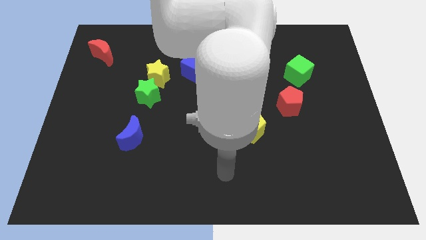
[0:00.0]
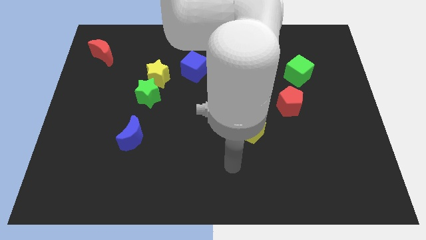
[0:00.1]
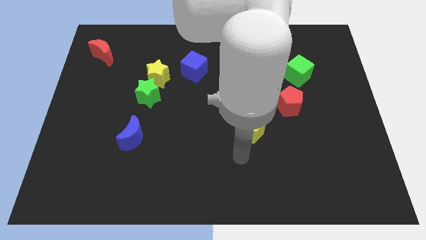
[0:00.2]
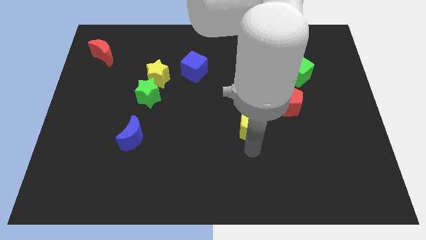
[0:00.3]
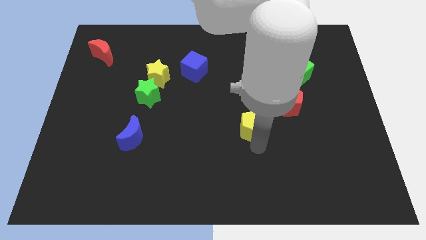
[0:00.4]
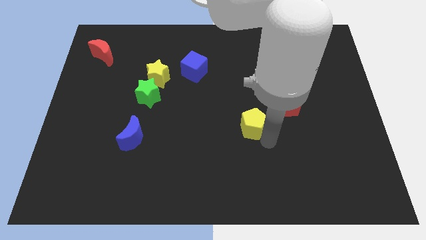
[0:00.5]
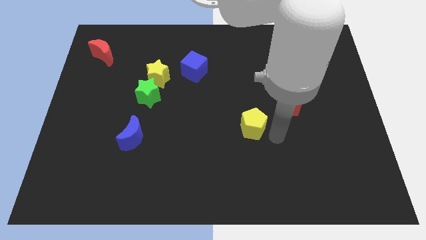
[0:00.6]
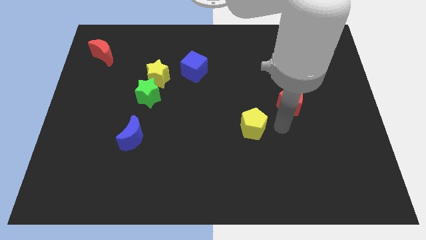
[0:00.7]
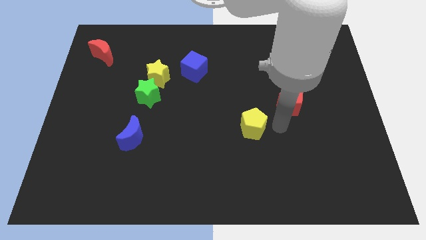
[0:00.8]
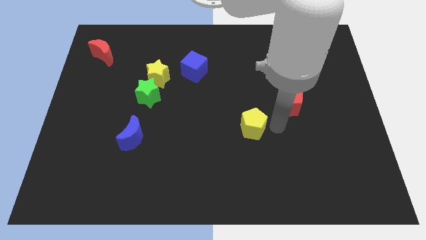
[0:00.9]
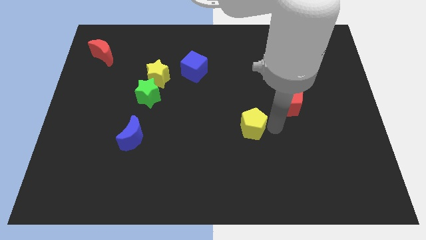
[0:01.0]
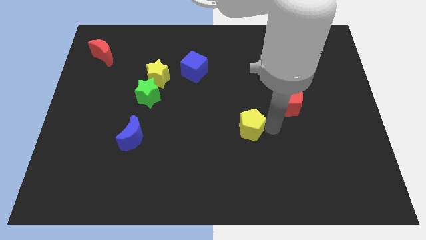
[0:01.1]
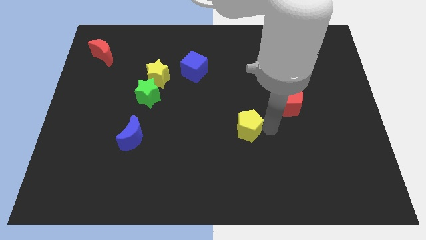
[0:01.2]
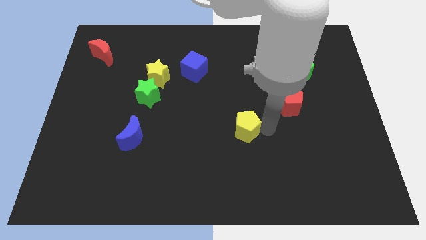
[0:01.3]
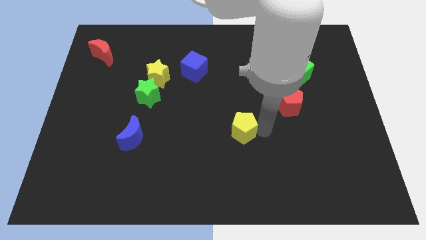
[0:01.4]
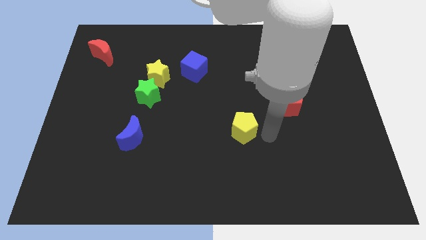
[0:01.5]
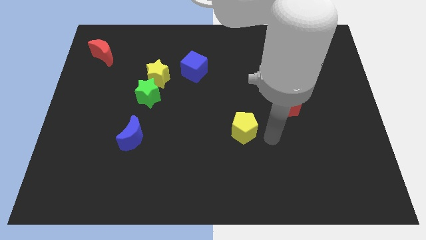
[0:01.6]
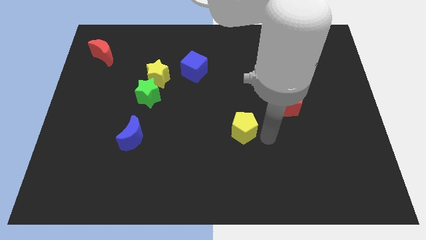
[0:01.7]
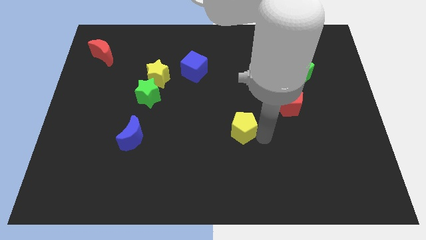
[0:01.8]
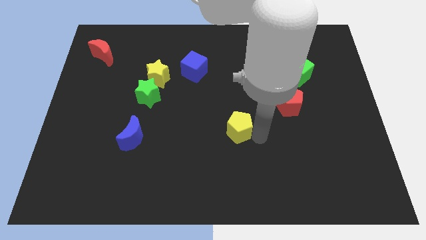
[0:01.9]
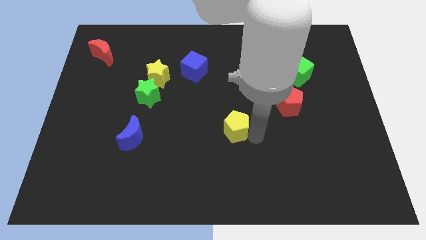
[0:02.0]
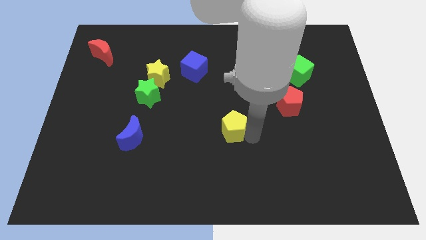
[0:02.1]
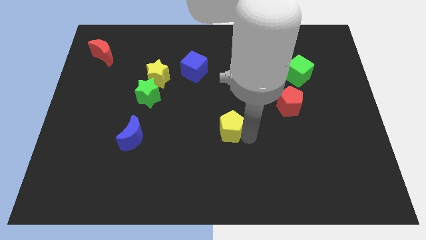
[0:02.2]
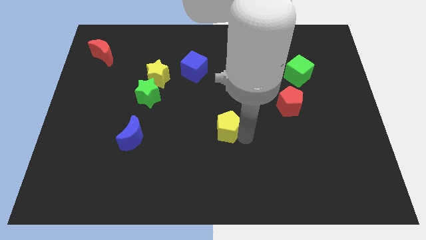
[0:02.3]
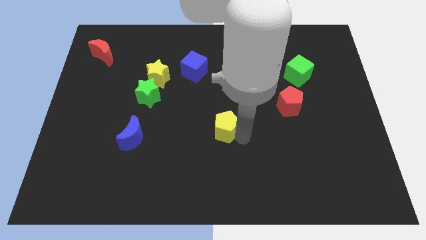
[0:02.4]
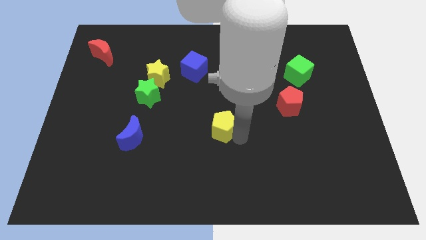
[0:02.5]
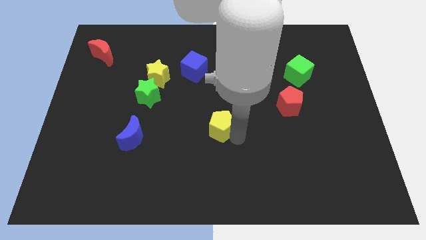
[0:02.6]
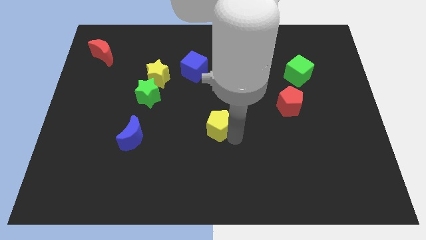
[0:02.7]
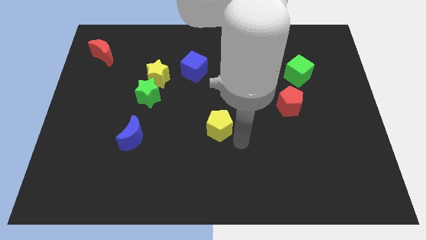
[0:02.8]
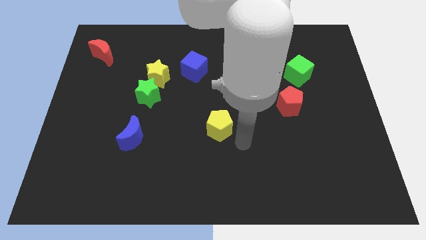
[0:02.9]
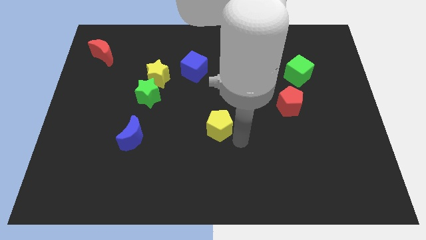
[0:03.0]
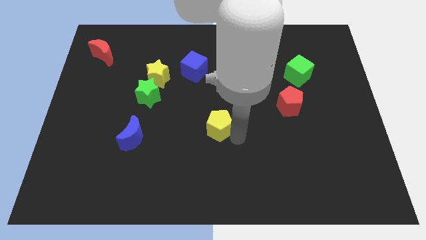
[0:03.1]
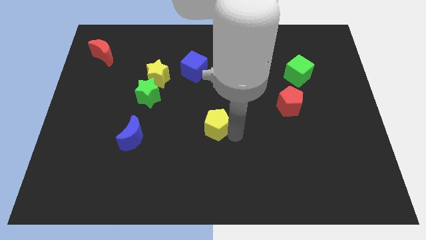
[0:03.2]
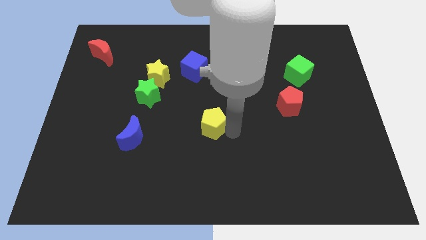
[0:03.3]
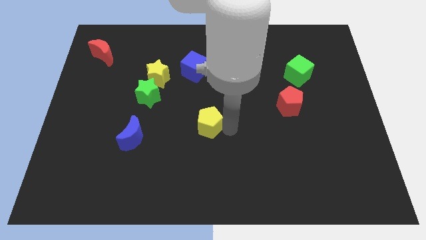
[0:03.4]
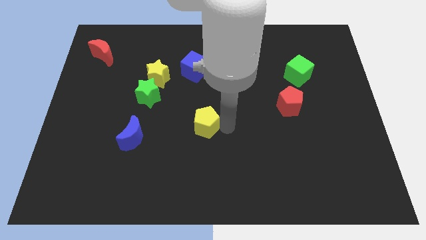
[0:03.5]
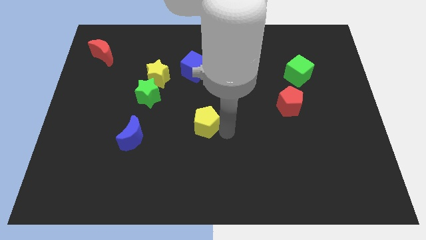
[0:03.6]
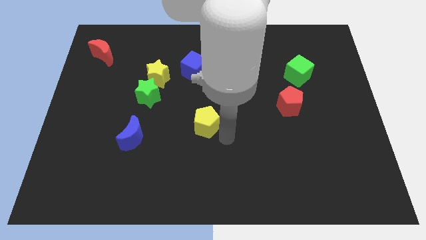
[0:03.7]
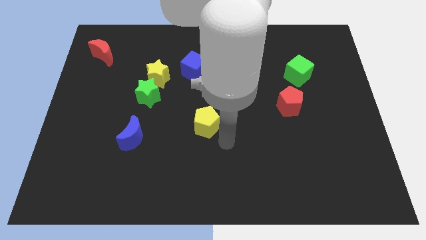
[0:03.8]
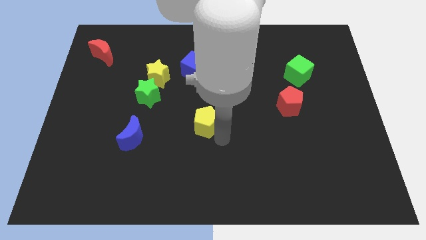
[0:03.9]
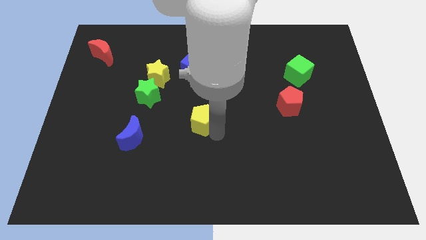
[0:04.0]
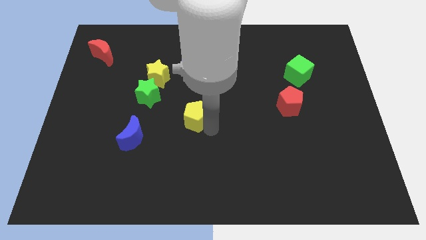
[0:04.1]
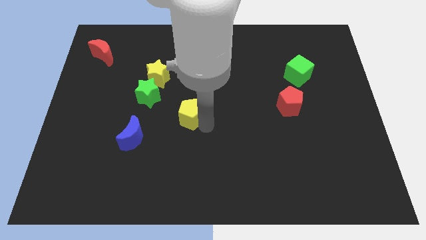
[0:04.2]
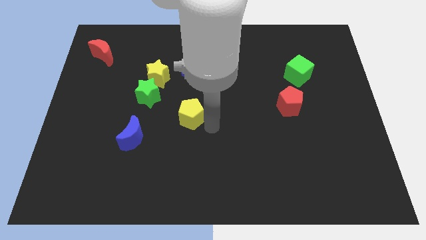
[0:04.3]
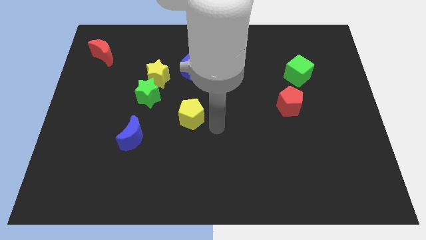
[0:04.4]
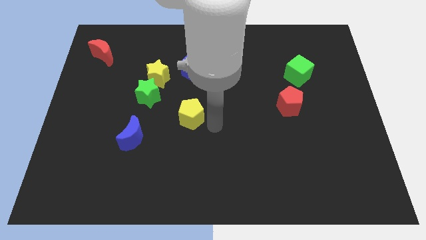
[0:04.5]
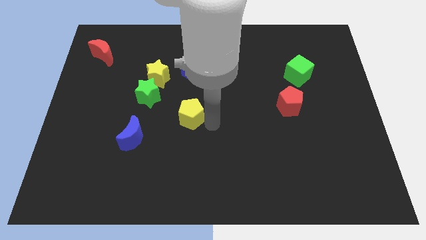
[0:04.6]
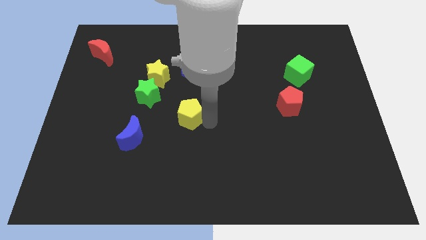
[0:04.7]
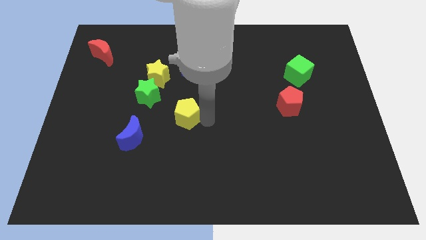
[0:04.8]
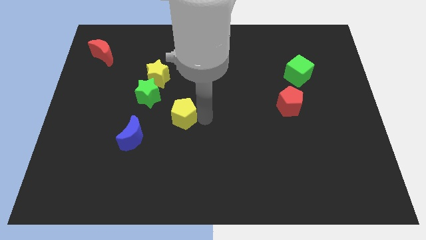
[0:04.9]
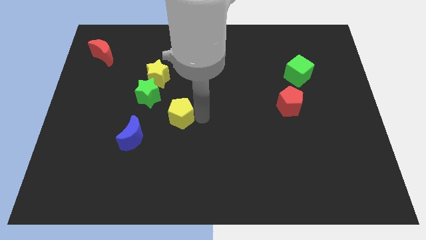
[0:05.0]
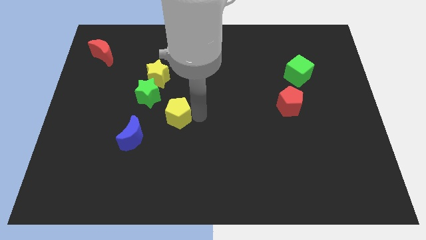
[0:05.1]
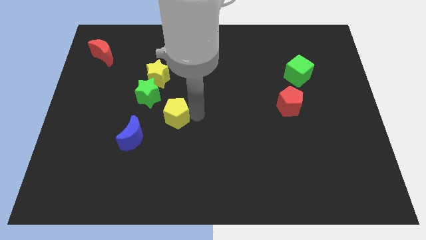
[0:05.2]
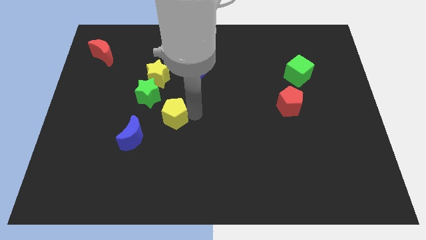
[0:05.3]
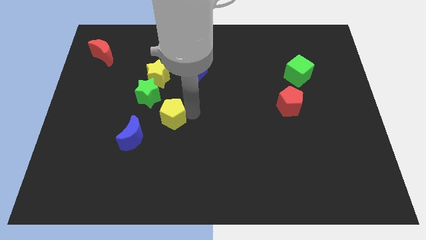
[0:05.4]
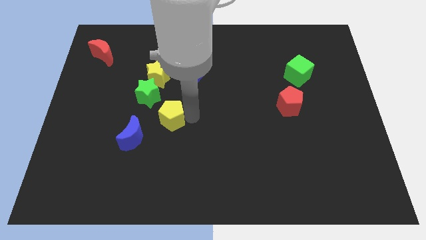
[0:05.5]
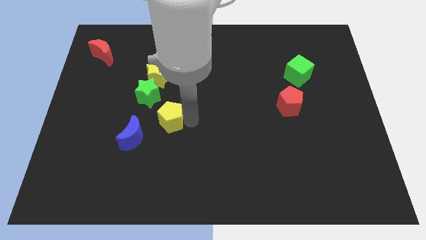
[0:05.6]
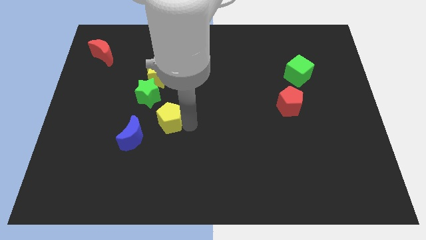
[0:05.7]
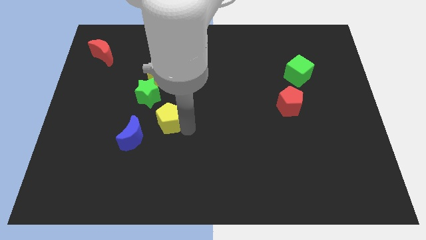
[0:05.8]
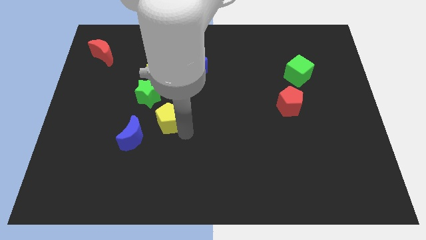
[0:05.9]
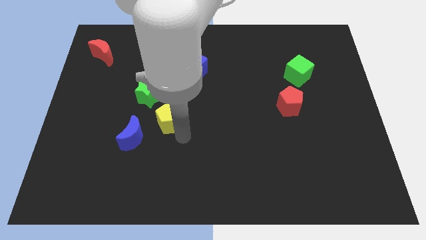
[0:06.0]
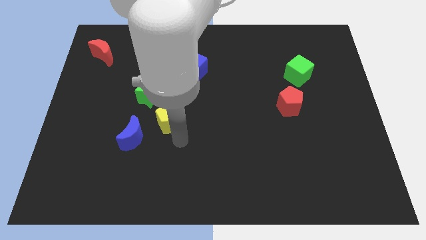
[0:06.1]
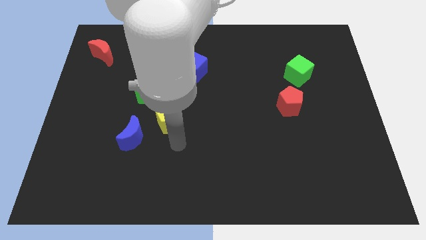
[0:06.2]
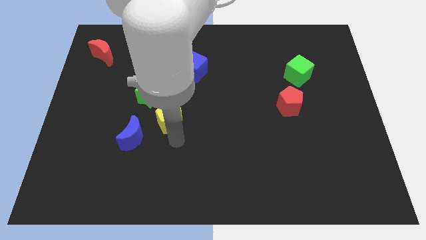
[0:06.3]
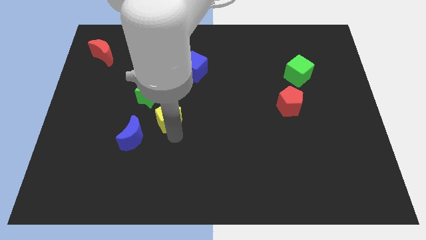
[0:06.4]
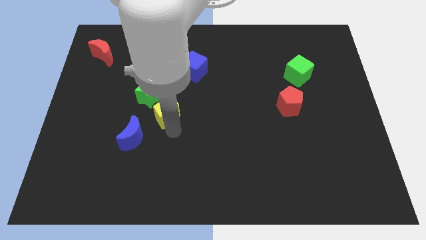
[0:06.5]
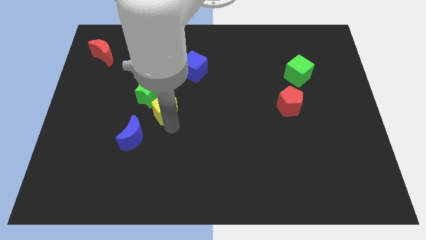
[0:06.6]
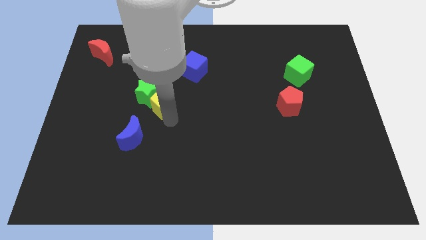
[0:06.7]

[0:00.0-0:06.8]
slide the yellow pentagon towards the green star
